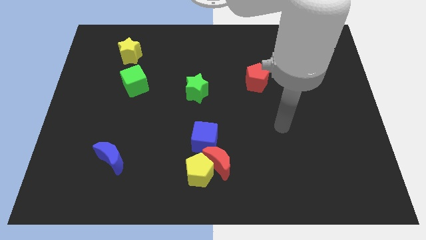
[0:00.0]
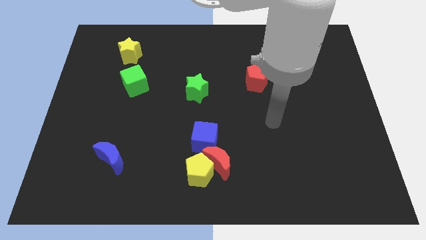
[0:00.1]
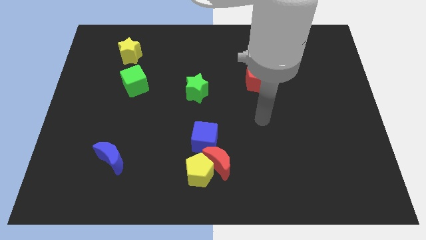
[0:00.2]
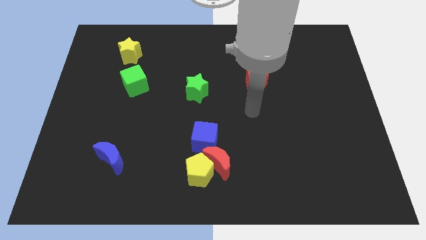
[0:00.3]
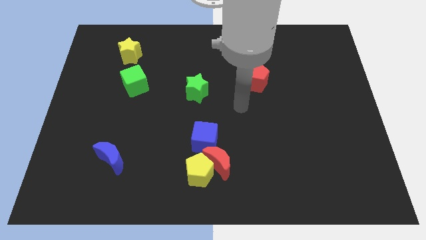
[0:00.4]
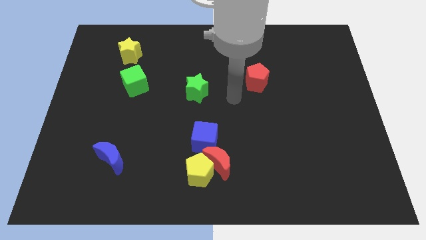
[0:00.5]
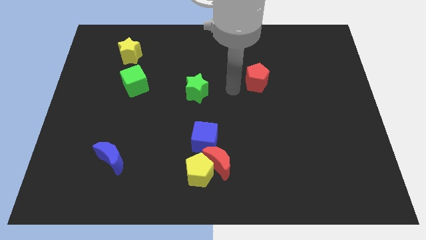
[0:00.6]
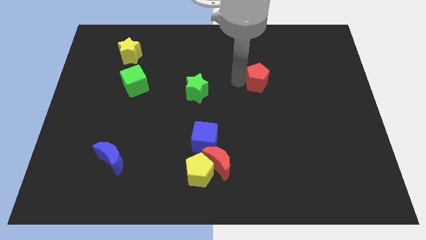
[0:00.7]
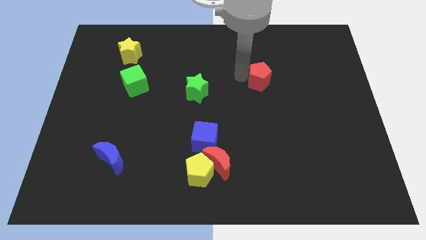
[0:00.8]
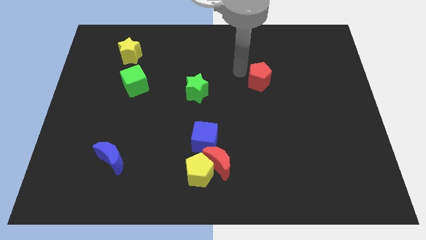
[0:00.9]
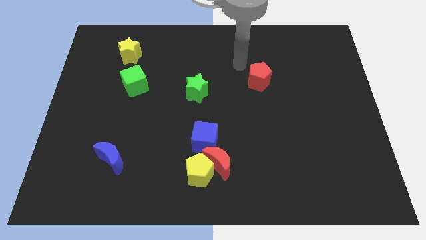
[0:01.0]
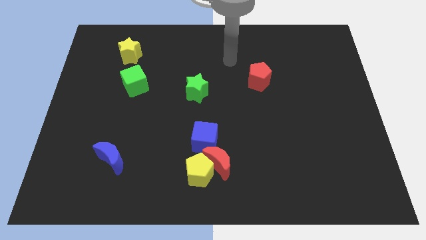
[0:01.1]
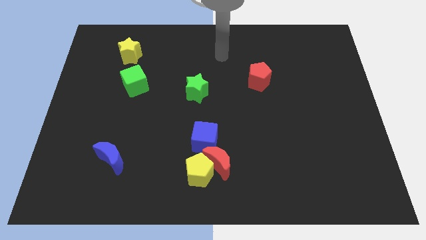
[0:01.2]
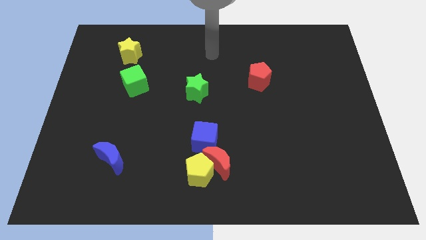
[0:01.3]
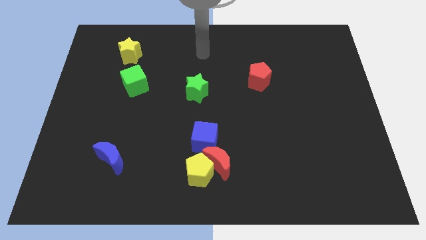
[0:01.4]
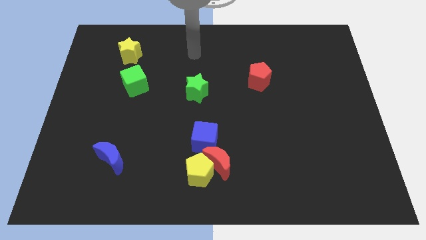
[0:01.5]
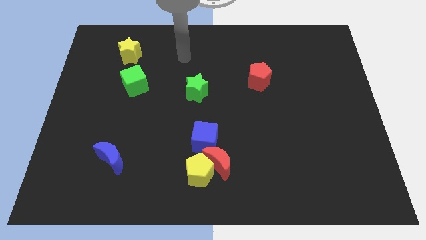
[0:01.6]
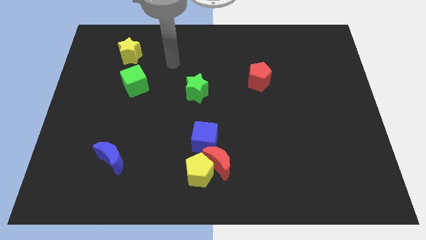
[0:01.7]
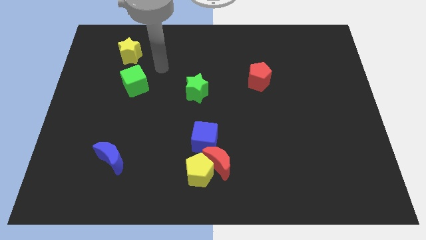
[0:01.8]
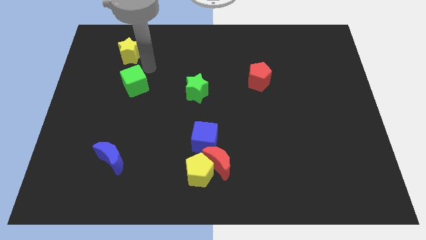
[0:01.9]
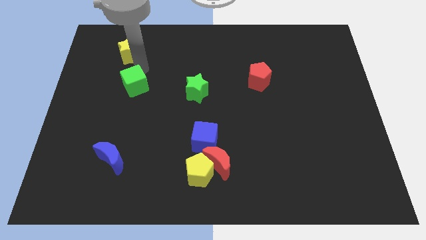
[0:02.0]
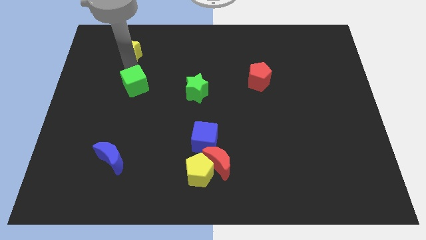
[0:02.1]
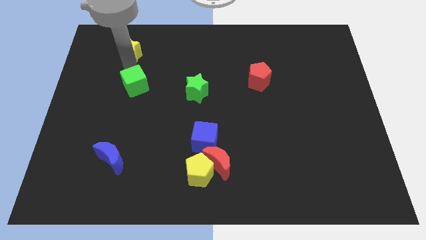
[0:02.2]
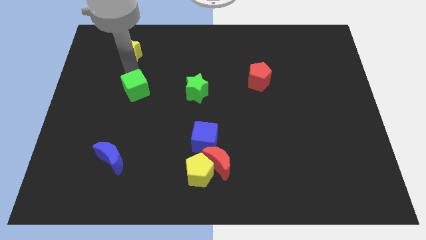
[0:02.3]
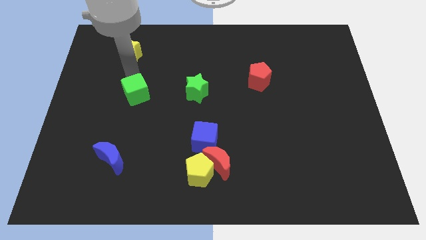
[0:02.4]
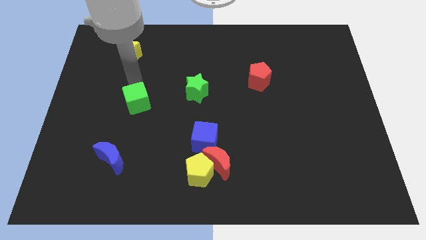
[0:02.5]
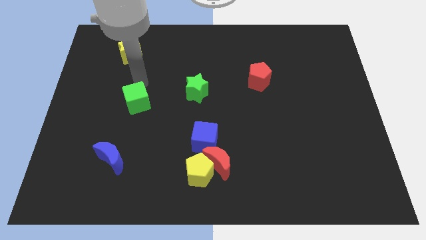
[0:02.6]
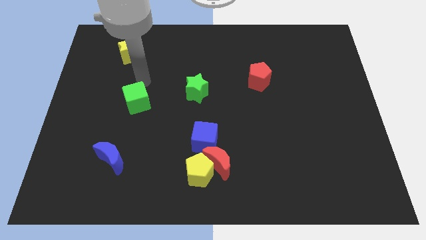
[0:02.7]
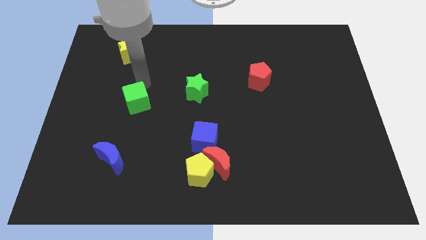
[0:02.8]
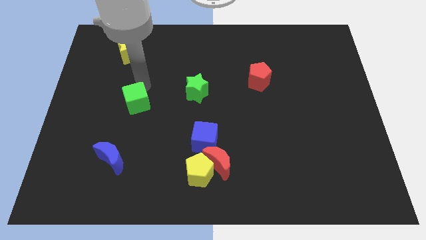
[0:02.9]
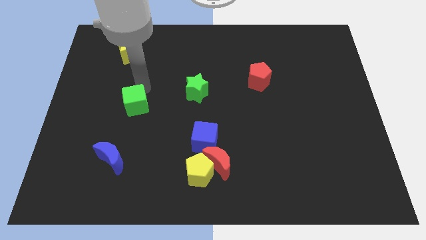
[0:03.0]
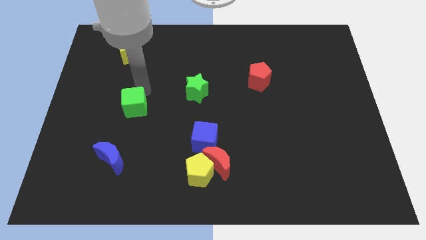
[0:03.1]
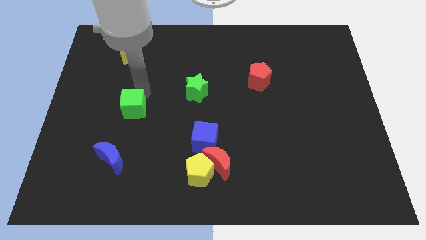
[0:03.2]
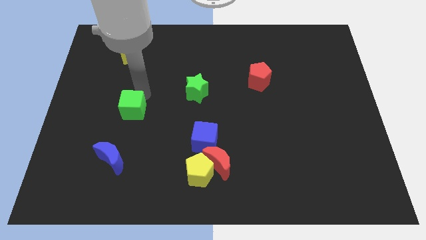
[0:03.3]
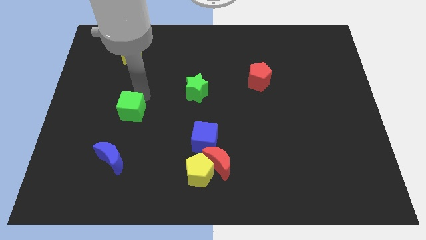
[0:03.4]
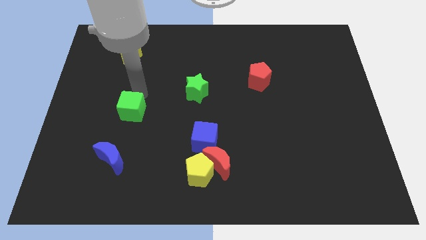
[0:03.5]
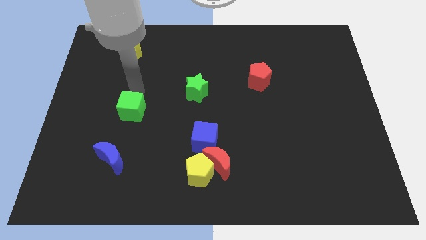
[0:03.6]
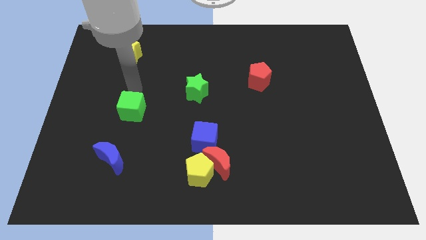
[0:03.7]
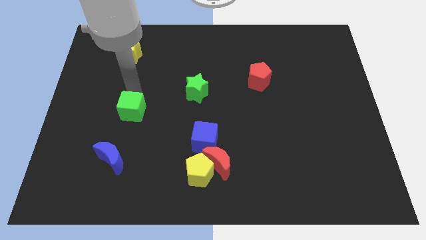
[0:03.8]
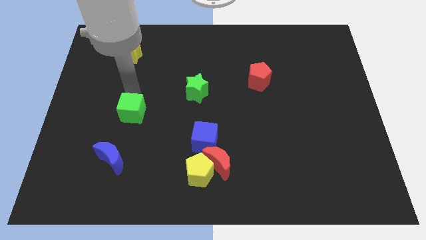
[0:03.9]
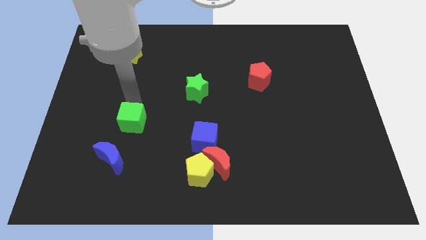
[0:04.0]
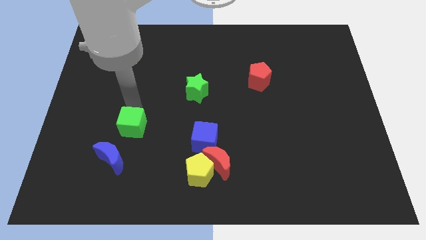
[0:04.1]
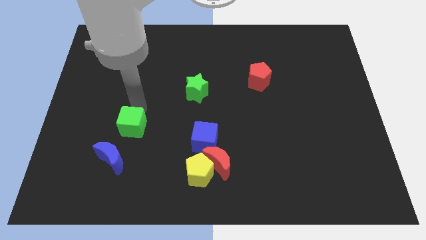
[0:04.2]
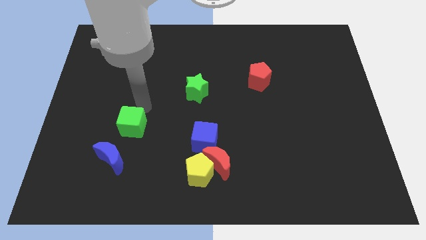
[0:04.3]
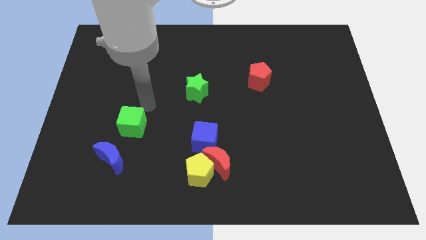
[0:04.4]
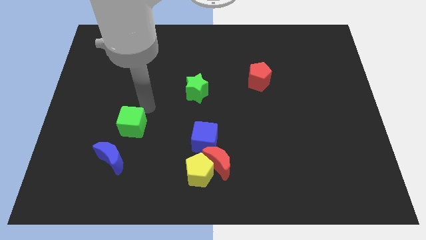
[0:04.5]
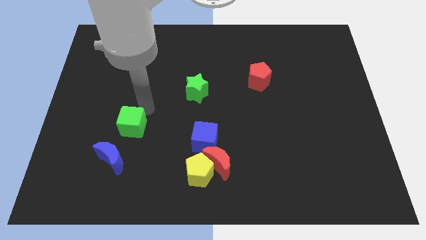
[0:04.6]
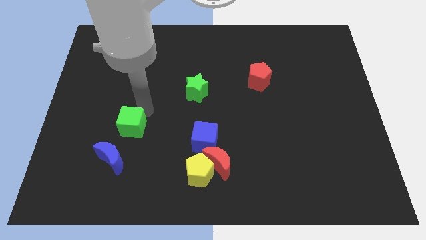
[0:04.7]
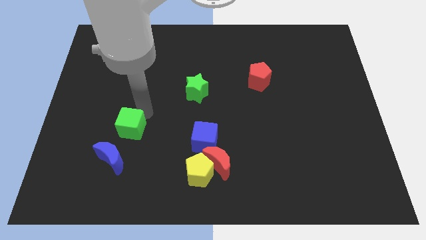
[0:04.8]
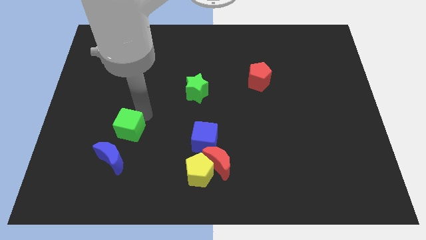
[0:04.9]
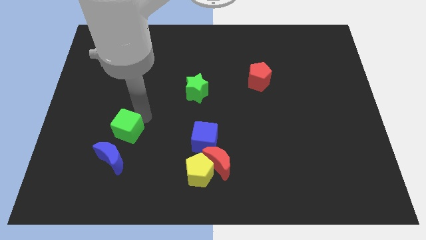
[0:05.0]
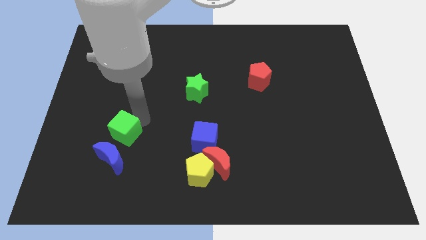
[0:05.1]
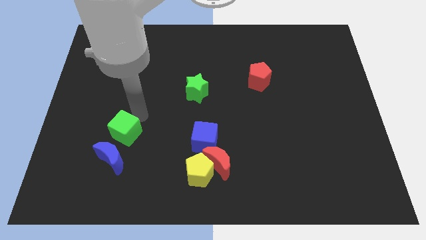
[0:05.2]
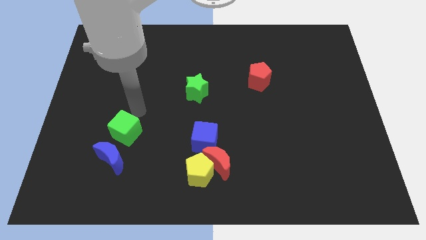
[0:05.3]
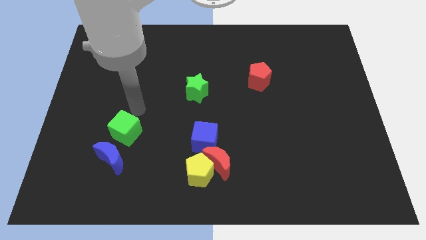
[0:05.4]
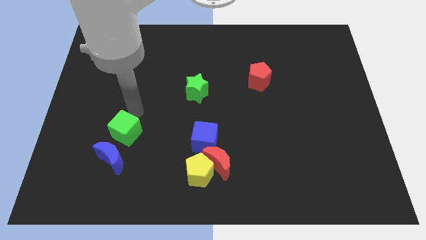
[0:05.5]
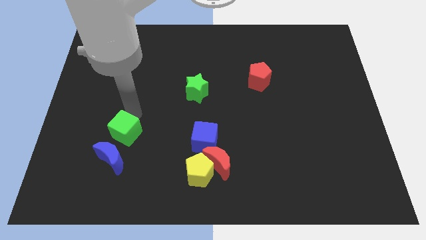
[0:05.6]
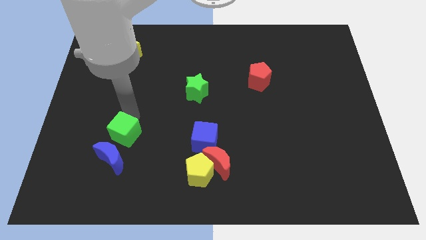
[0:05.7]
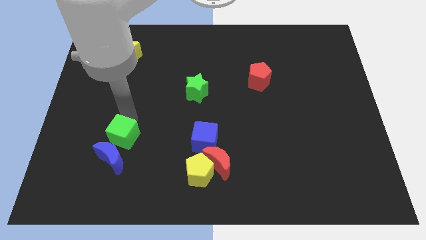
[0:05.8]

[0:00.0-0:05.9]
move the green cube next to the blue moon

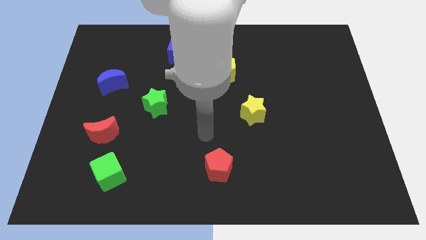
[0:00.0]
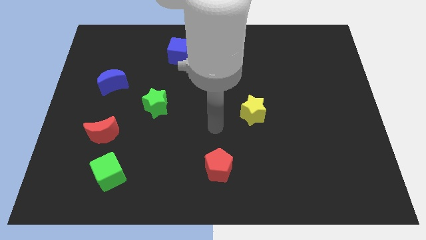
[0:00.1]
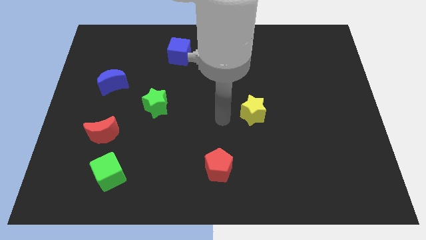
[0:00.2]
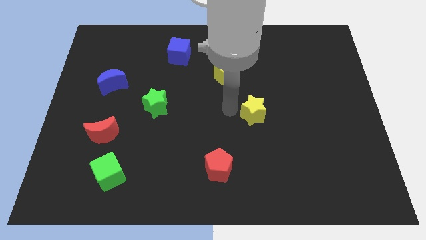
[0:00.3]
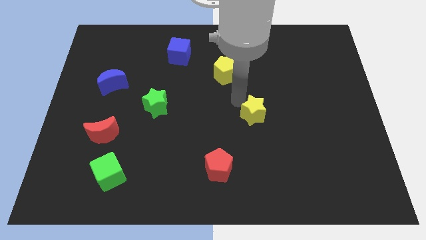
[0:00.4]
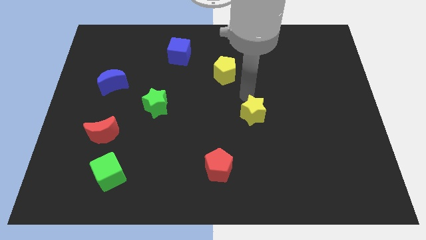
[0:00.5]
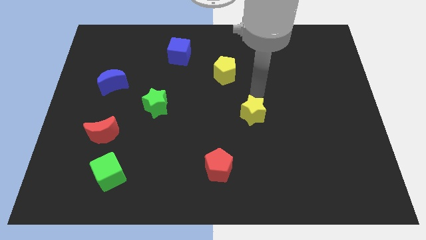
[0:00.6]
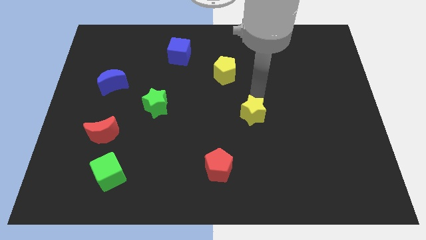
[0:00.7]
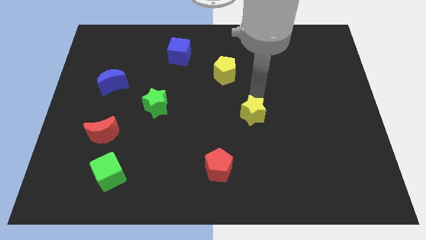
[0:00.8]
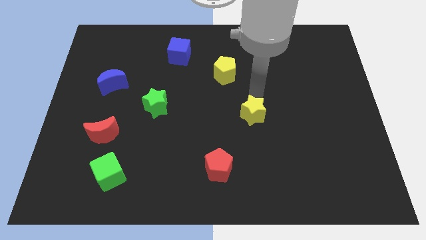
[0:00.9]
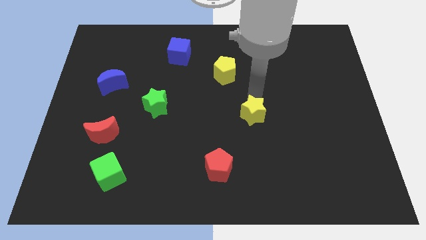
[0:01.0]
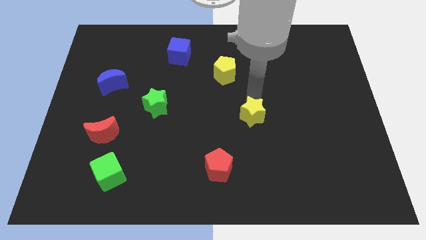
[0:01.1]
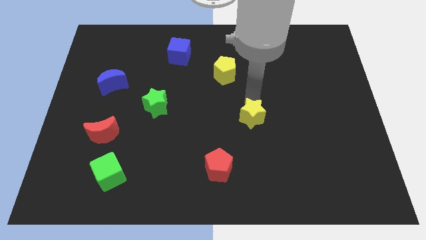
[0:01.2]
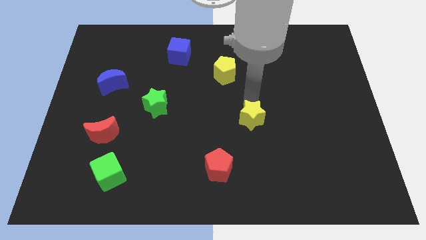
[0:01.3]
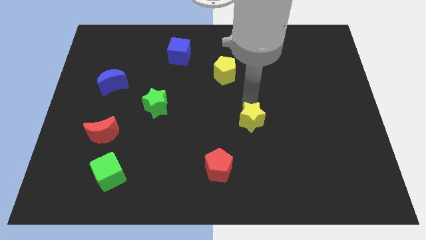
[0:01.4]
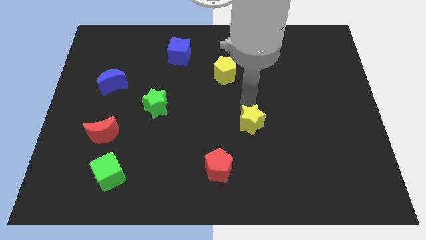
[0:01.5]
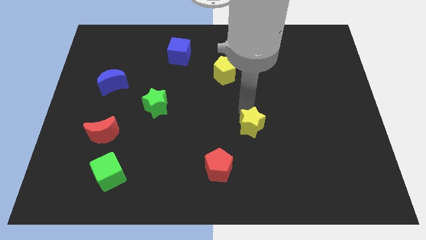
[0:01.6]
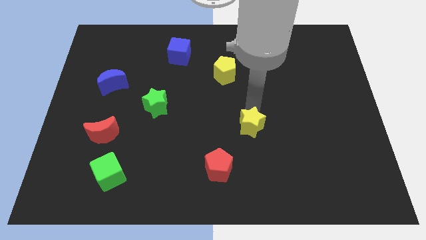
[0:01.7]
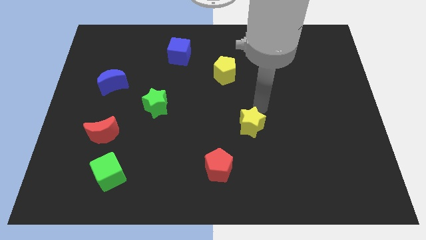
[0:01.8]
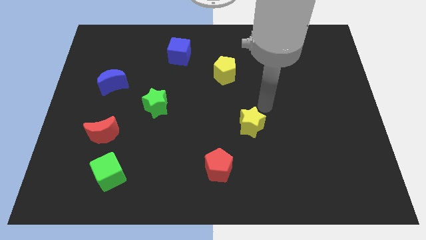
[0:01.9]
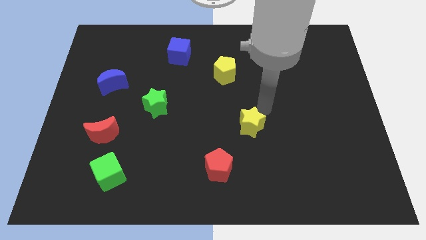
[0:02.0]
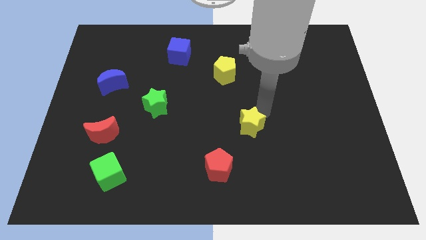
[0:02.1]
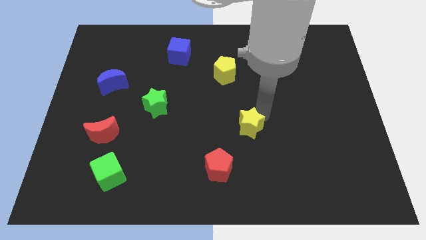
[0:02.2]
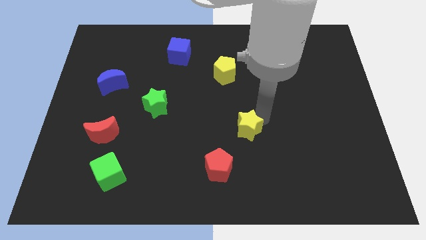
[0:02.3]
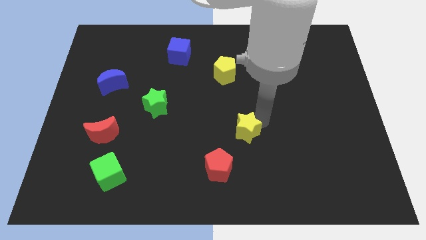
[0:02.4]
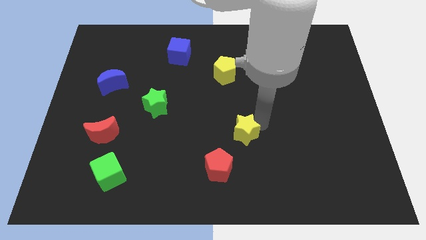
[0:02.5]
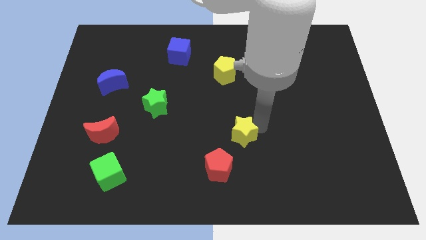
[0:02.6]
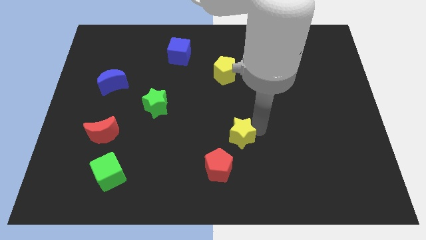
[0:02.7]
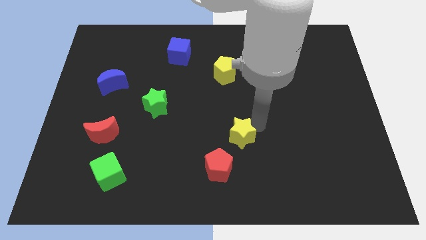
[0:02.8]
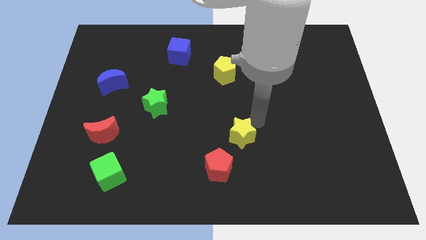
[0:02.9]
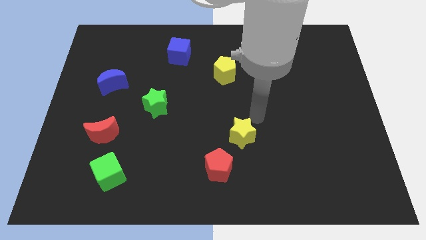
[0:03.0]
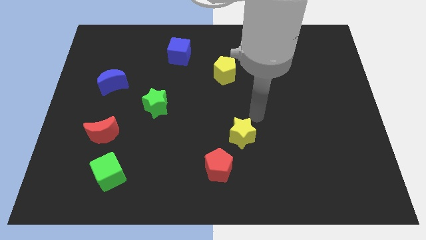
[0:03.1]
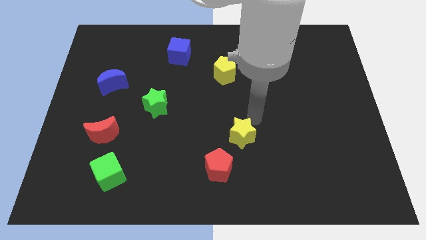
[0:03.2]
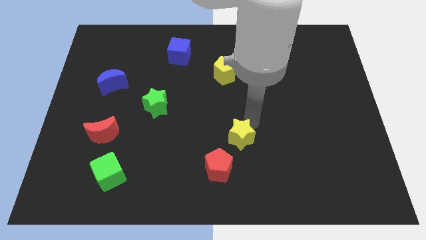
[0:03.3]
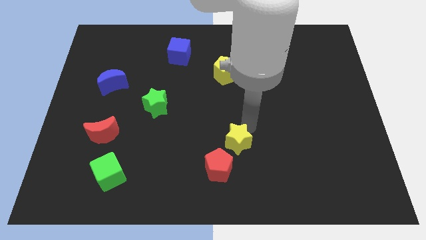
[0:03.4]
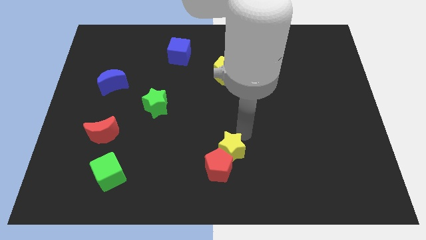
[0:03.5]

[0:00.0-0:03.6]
slide the yellow star close to the red pentagon
